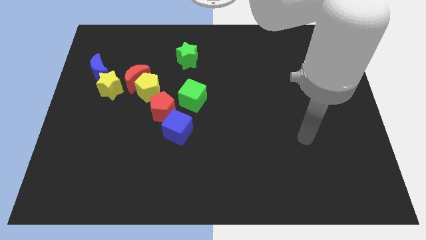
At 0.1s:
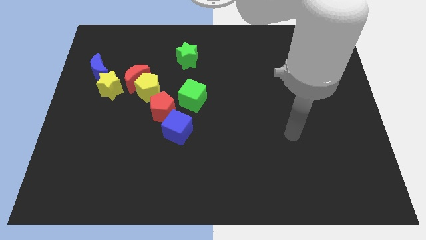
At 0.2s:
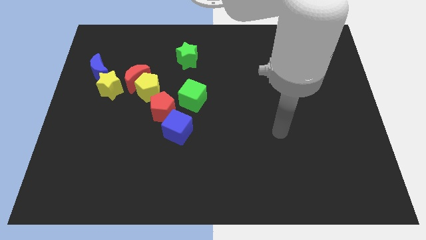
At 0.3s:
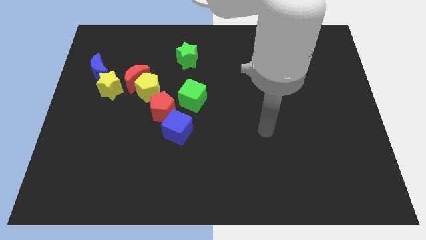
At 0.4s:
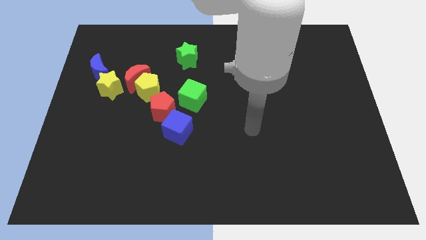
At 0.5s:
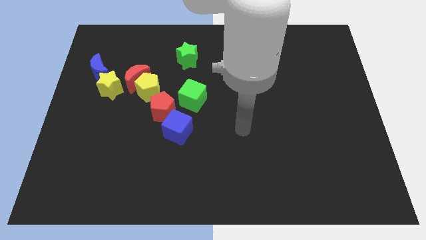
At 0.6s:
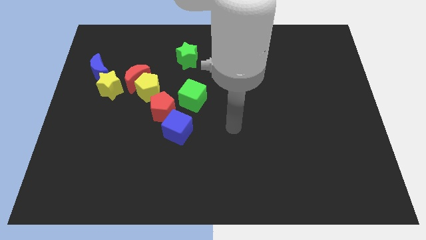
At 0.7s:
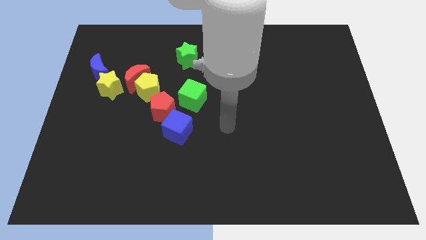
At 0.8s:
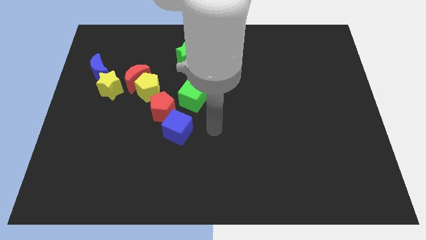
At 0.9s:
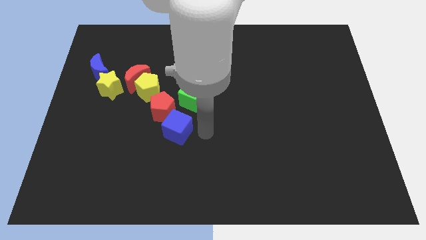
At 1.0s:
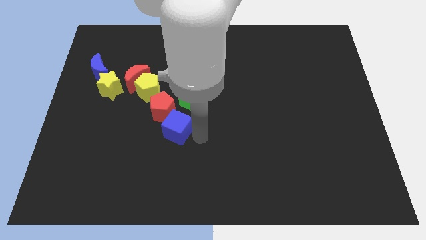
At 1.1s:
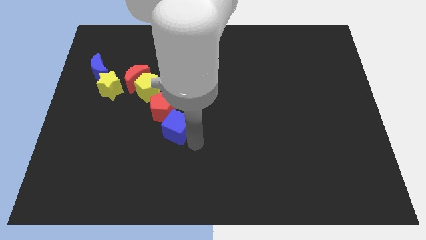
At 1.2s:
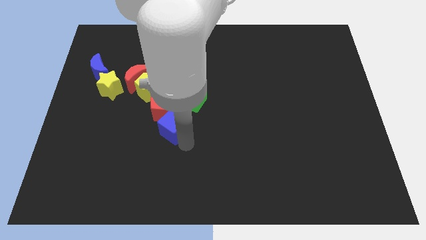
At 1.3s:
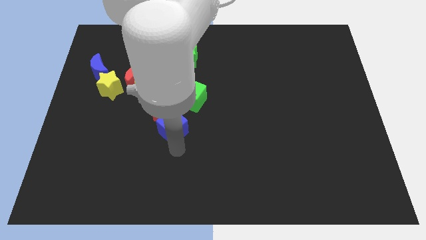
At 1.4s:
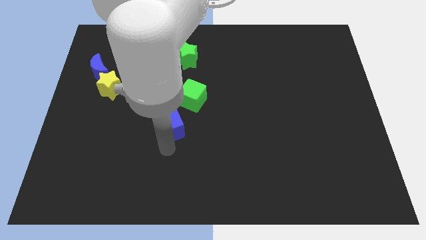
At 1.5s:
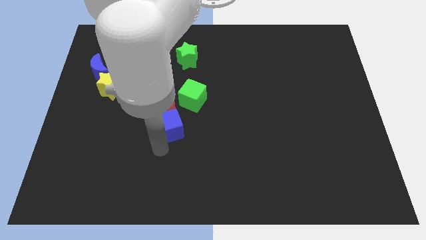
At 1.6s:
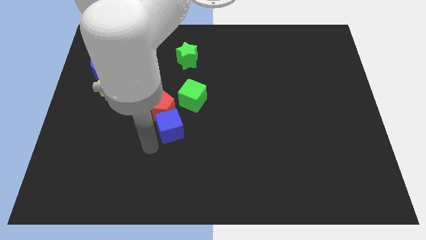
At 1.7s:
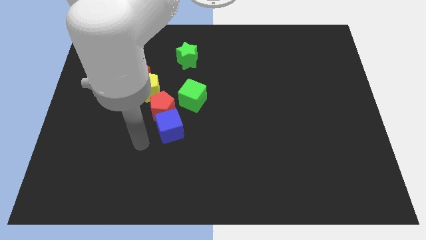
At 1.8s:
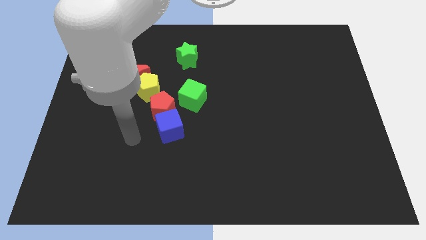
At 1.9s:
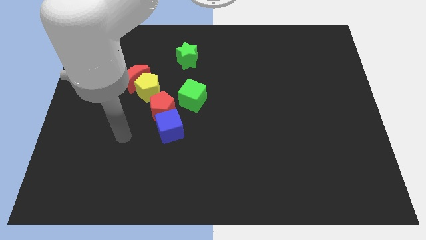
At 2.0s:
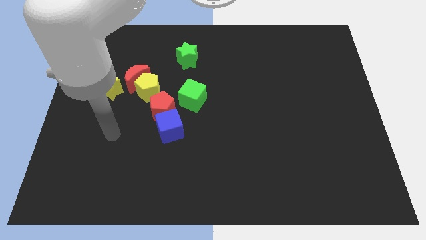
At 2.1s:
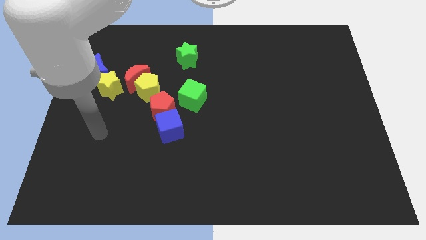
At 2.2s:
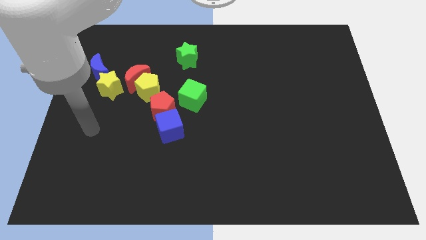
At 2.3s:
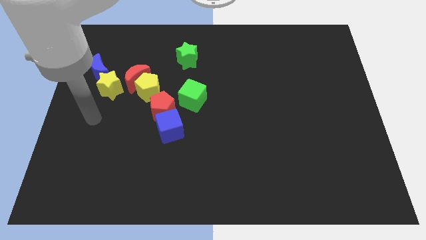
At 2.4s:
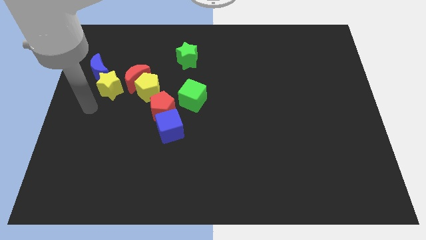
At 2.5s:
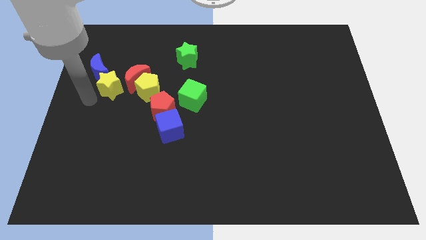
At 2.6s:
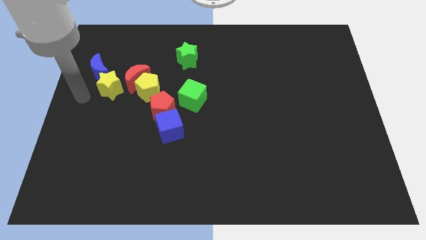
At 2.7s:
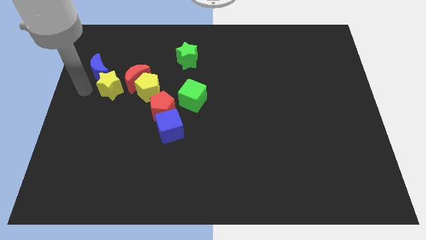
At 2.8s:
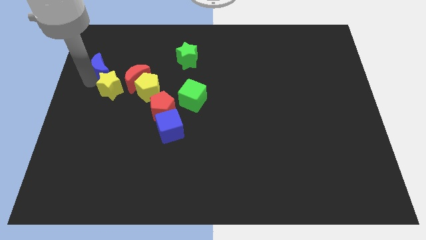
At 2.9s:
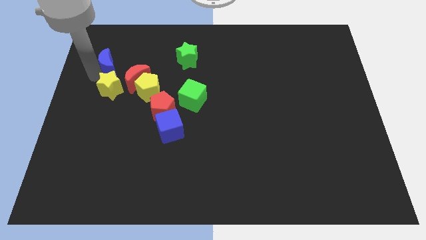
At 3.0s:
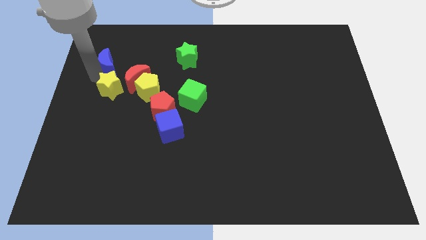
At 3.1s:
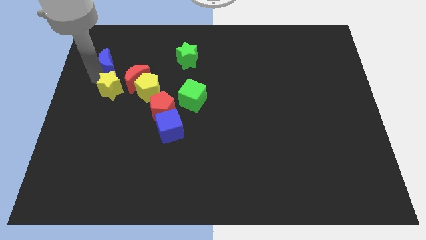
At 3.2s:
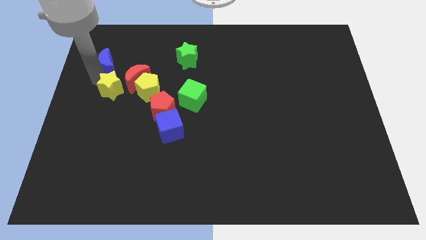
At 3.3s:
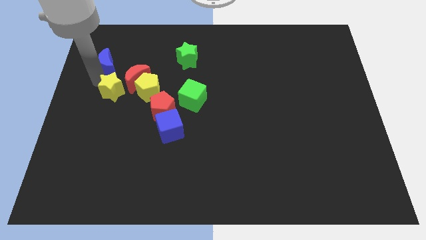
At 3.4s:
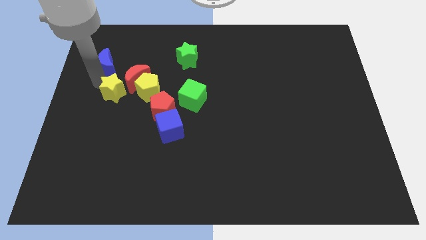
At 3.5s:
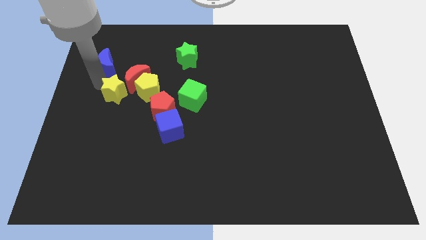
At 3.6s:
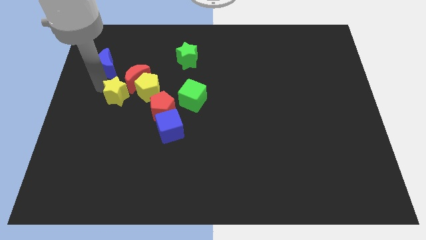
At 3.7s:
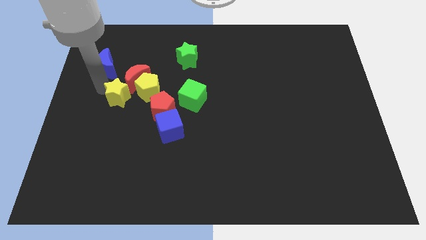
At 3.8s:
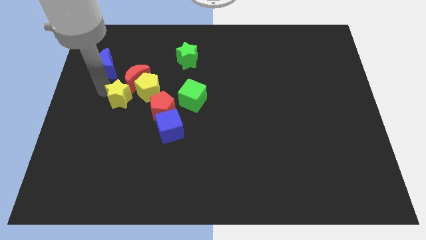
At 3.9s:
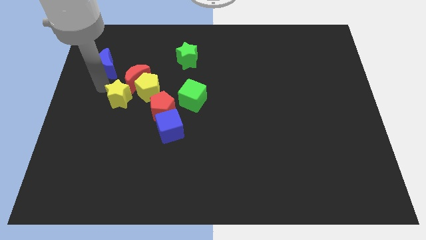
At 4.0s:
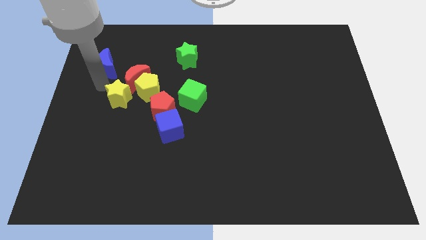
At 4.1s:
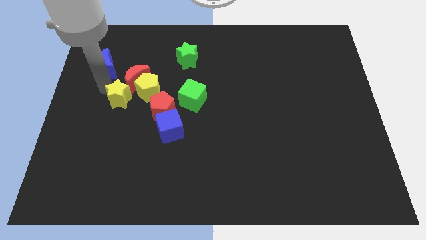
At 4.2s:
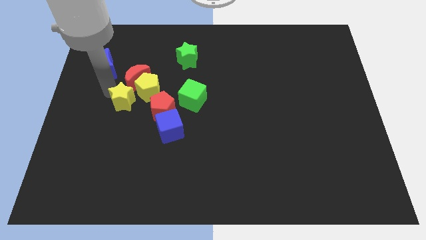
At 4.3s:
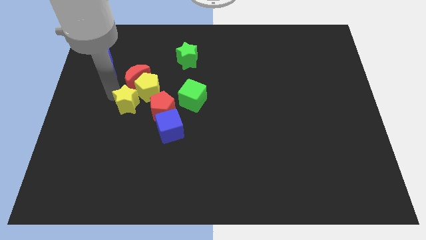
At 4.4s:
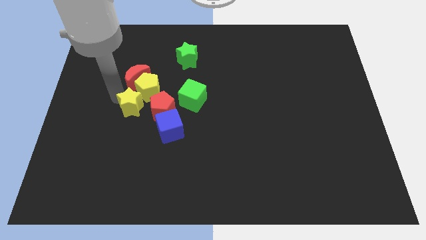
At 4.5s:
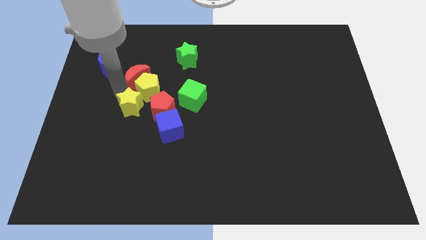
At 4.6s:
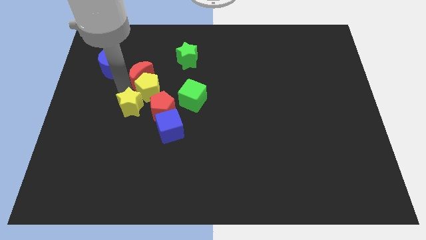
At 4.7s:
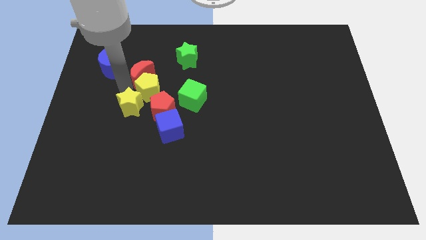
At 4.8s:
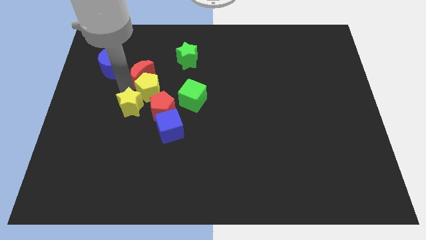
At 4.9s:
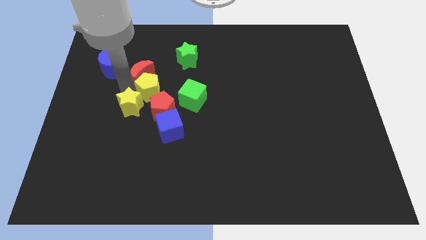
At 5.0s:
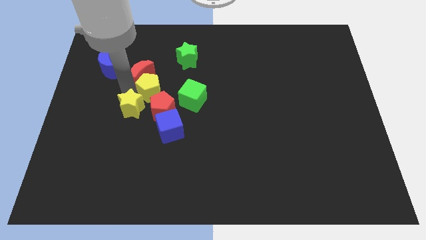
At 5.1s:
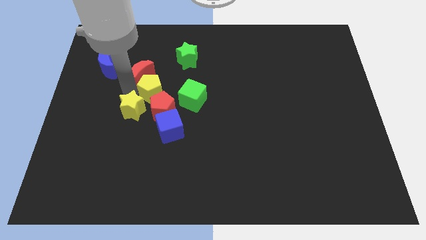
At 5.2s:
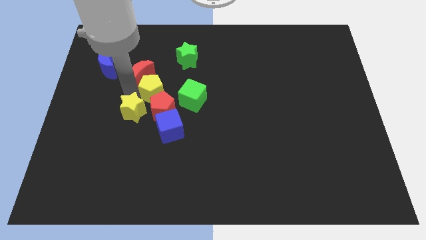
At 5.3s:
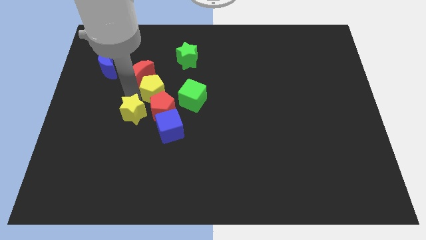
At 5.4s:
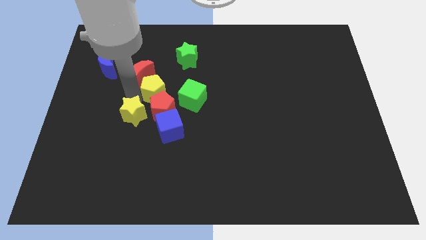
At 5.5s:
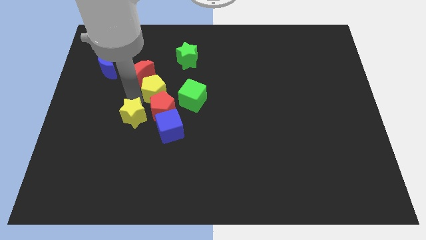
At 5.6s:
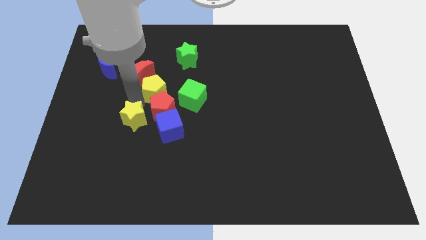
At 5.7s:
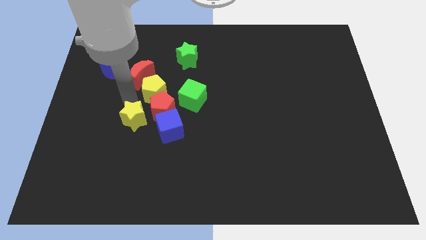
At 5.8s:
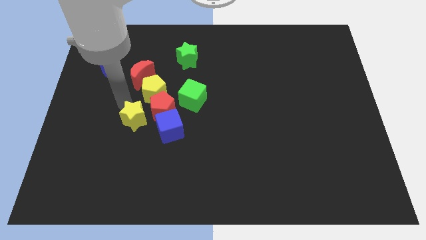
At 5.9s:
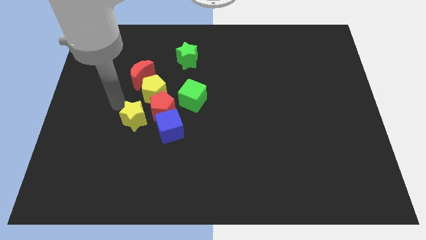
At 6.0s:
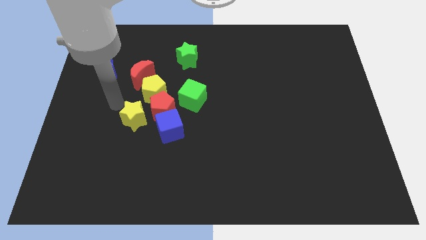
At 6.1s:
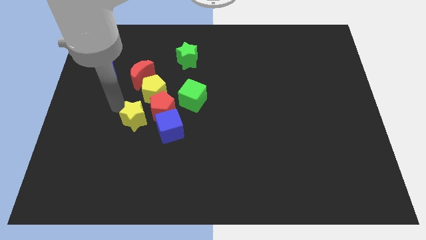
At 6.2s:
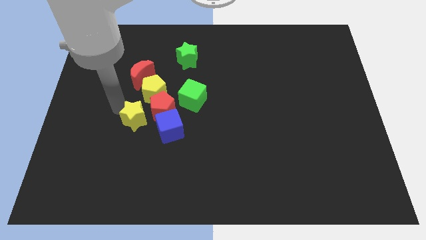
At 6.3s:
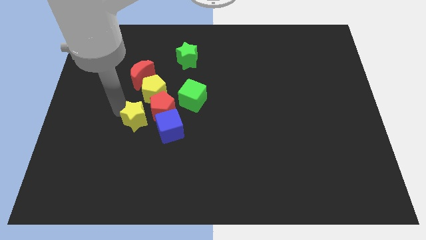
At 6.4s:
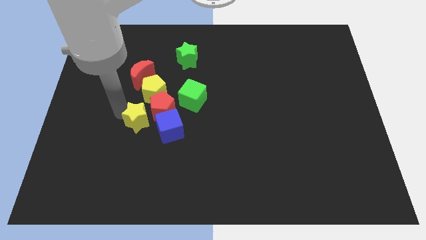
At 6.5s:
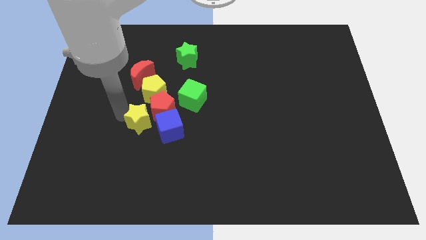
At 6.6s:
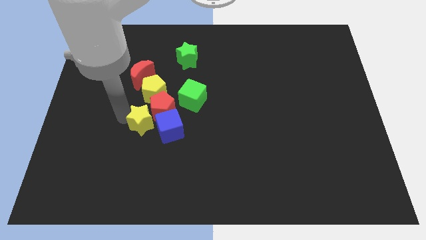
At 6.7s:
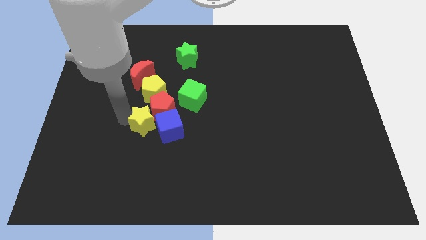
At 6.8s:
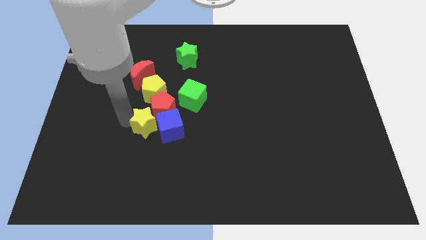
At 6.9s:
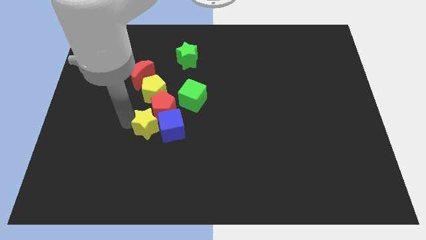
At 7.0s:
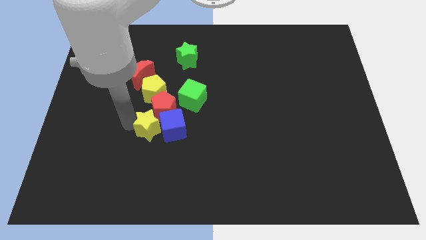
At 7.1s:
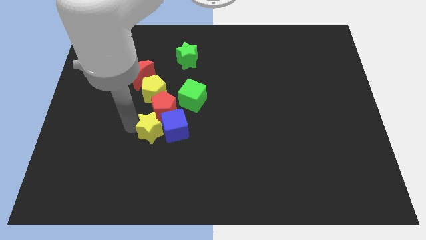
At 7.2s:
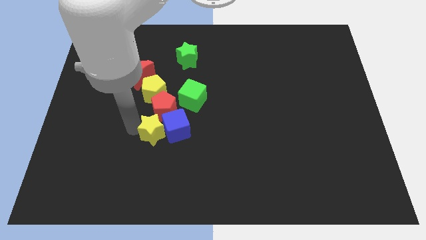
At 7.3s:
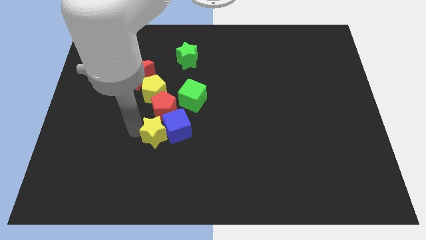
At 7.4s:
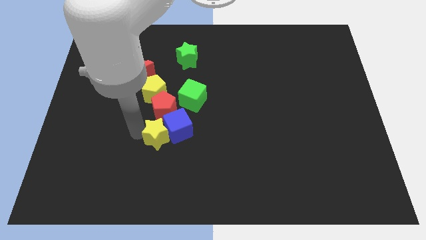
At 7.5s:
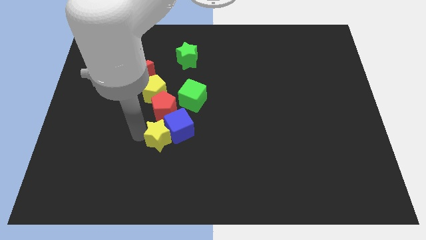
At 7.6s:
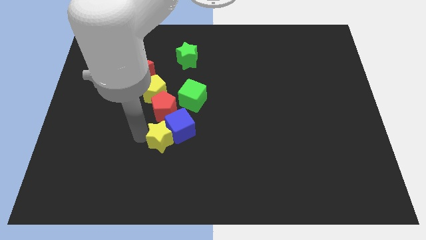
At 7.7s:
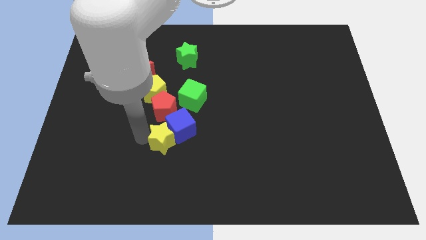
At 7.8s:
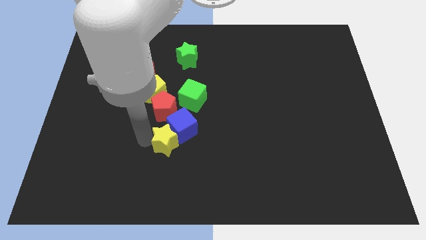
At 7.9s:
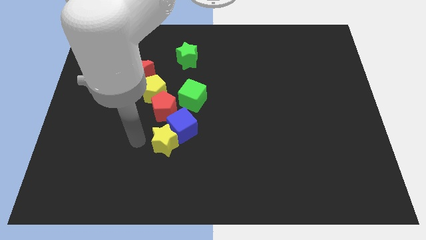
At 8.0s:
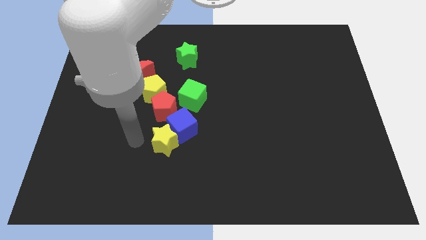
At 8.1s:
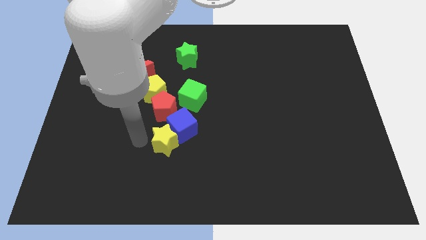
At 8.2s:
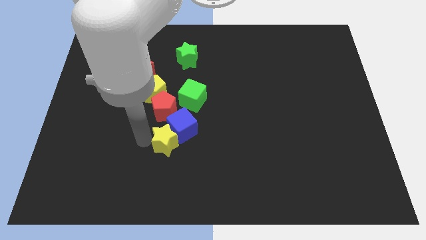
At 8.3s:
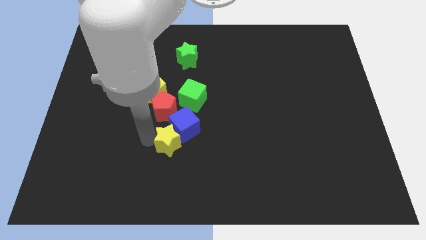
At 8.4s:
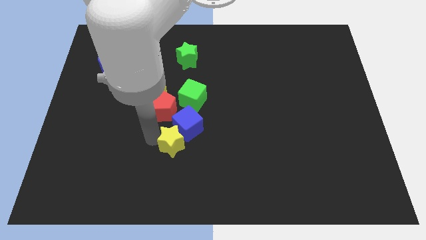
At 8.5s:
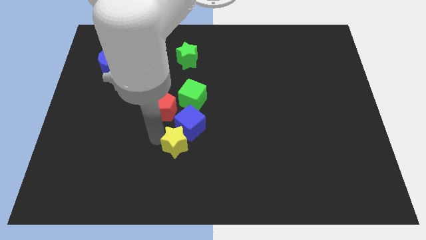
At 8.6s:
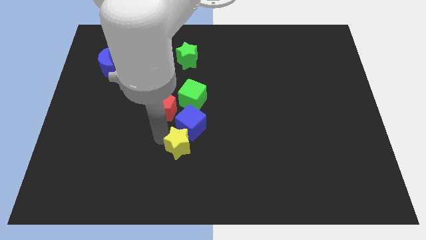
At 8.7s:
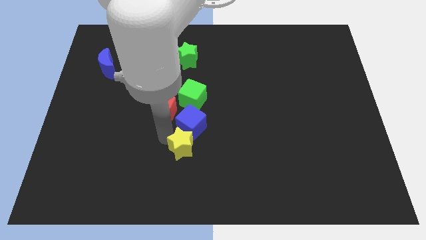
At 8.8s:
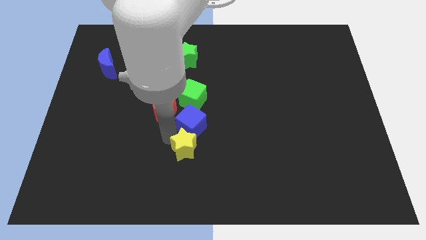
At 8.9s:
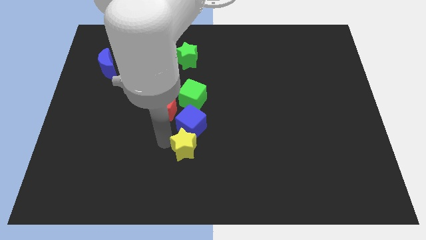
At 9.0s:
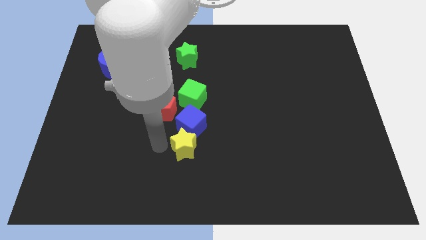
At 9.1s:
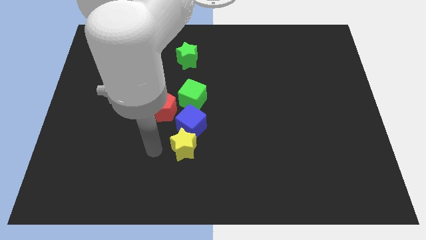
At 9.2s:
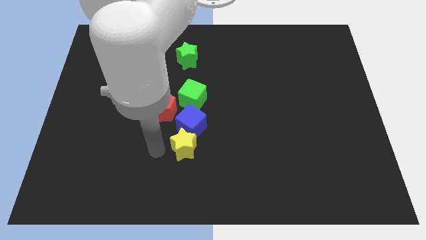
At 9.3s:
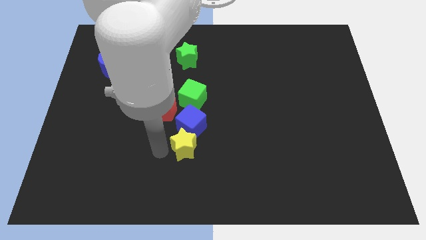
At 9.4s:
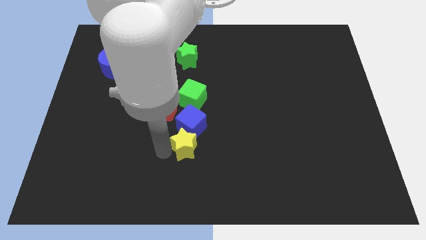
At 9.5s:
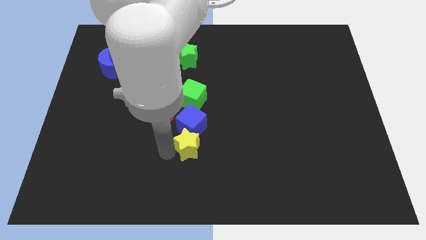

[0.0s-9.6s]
slide the yellow star to the bottom right of the blue cube
